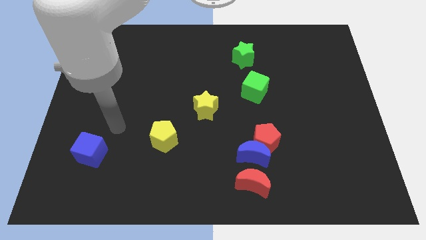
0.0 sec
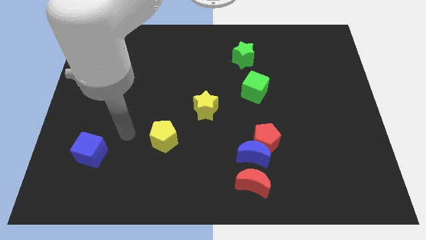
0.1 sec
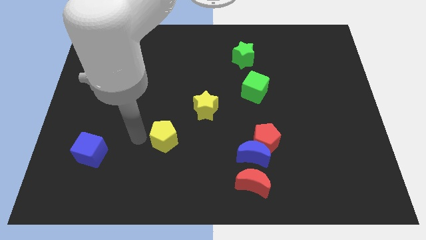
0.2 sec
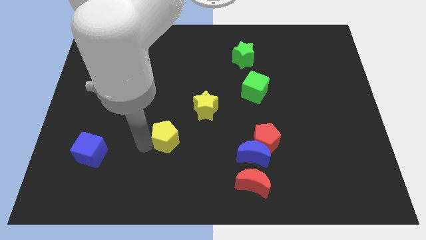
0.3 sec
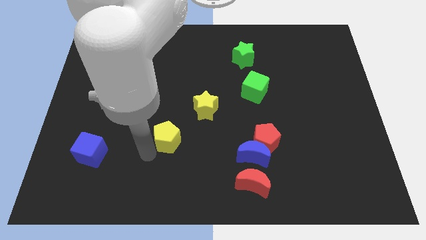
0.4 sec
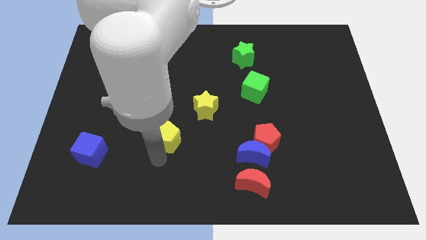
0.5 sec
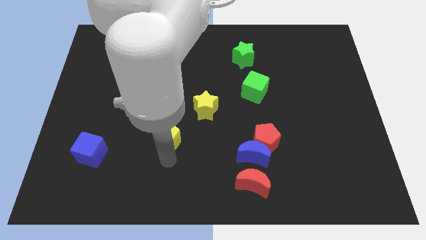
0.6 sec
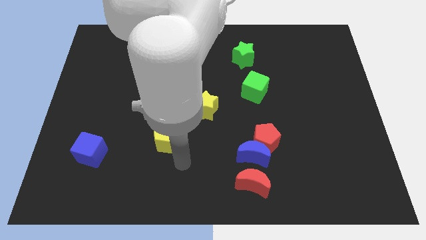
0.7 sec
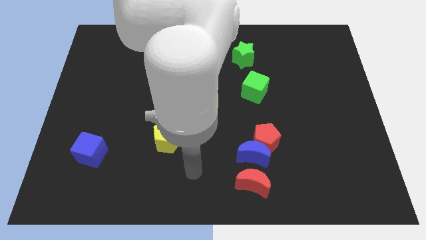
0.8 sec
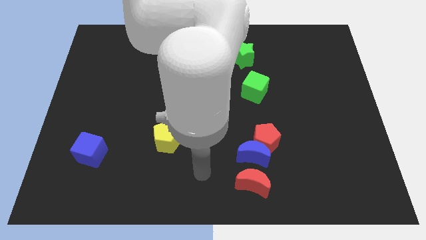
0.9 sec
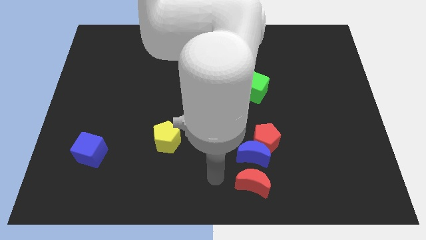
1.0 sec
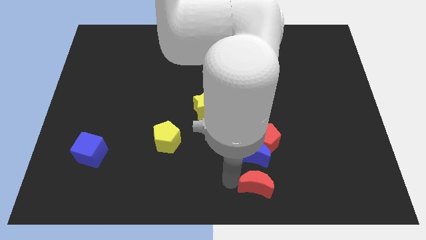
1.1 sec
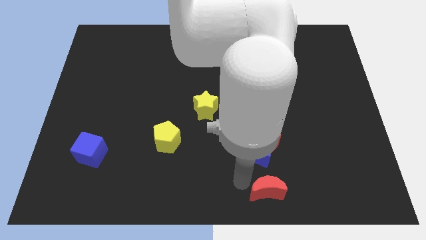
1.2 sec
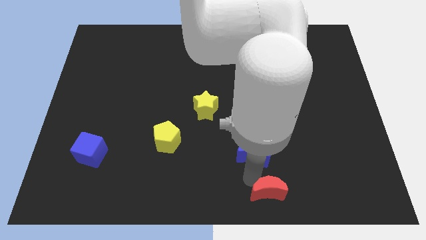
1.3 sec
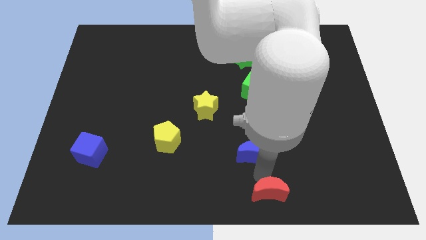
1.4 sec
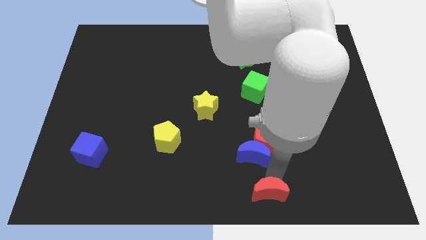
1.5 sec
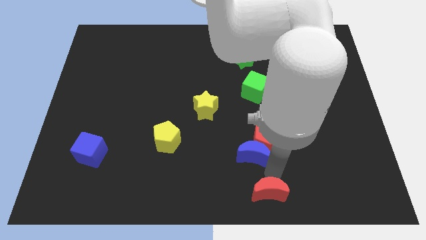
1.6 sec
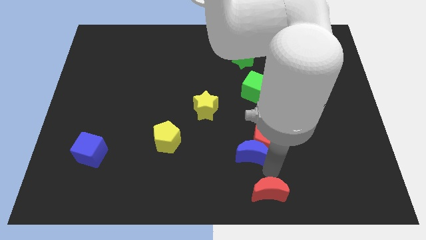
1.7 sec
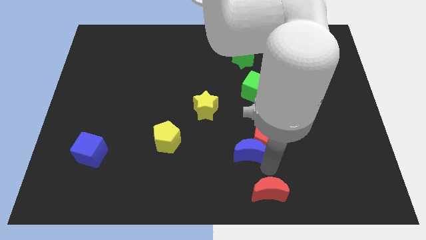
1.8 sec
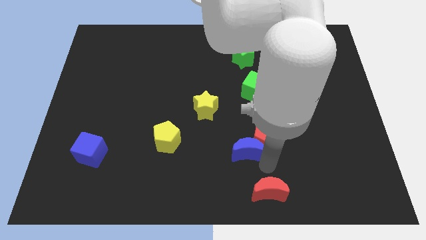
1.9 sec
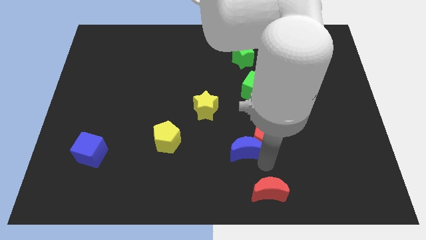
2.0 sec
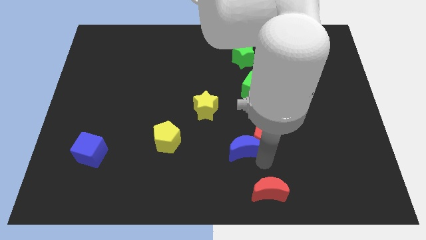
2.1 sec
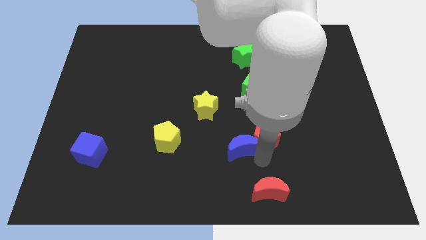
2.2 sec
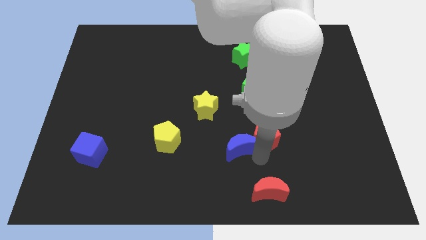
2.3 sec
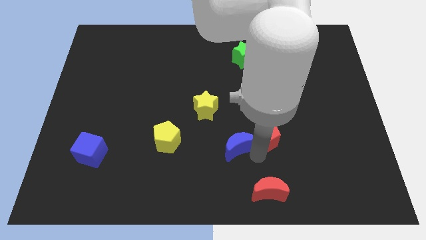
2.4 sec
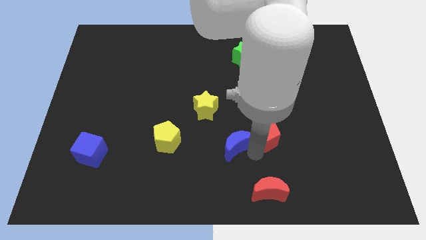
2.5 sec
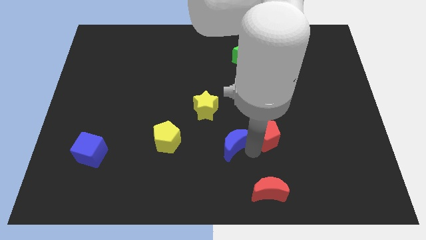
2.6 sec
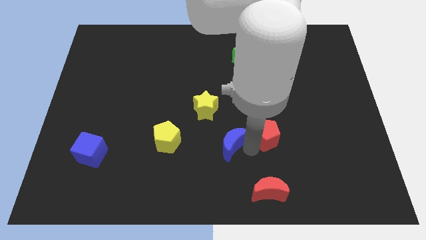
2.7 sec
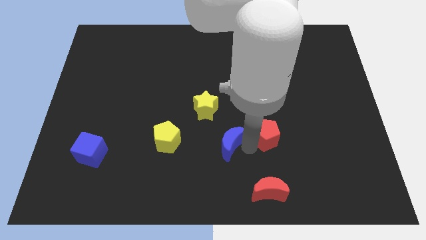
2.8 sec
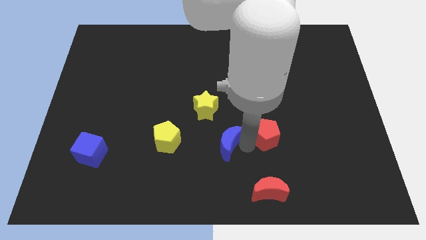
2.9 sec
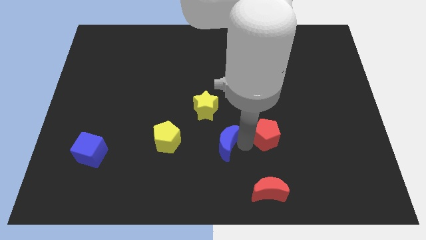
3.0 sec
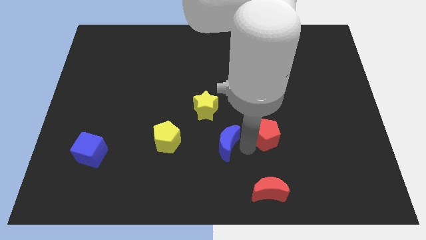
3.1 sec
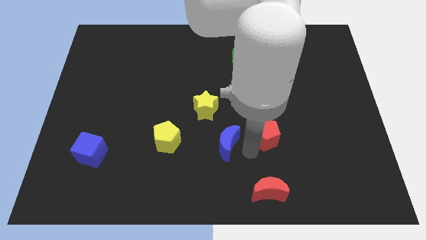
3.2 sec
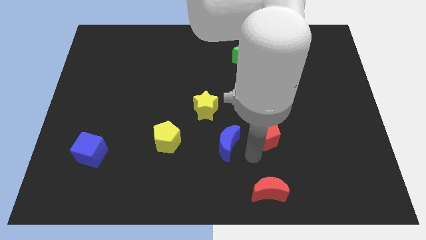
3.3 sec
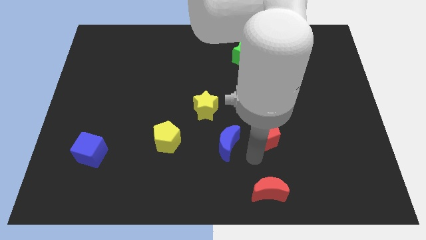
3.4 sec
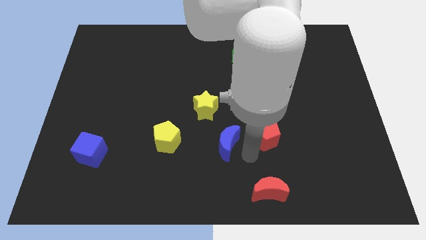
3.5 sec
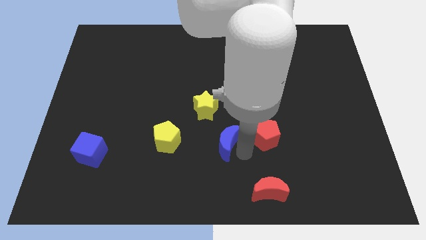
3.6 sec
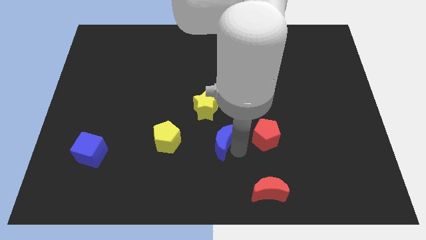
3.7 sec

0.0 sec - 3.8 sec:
pull the blue moon apart from the red pentagon and red moon

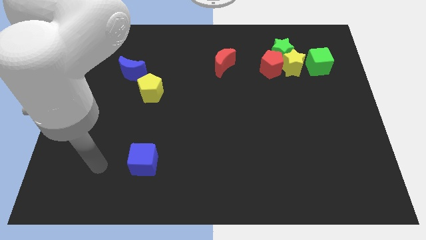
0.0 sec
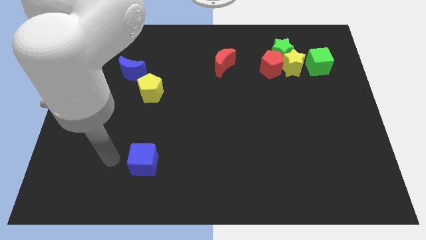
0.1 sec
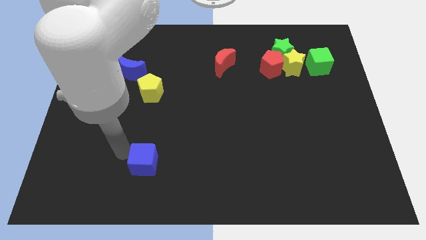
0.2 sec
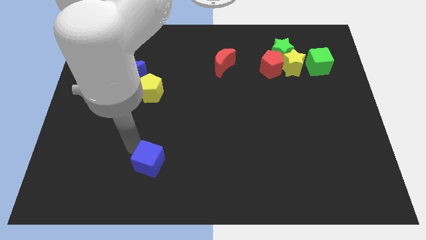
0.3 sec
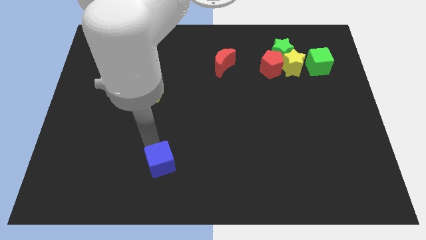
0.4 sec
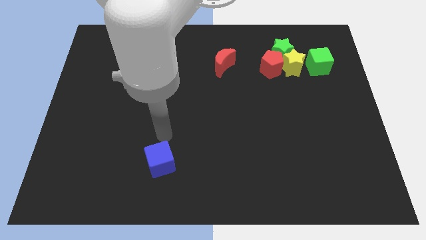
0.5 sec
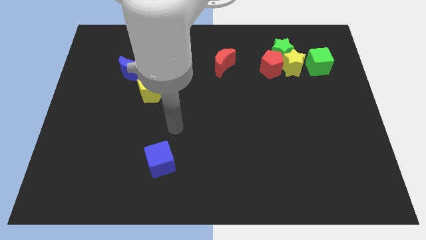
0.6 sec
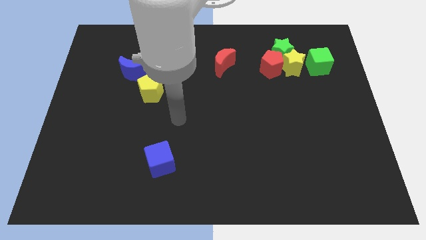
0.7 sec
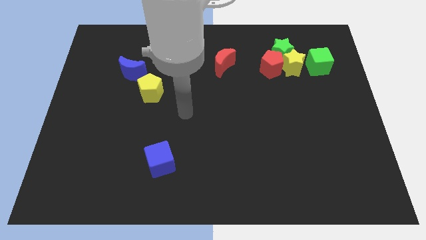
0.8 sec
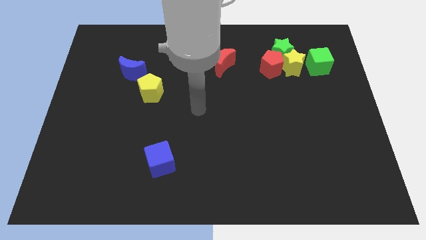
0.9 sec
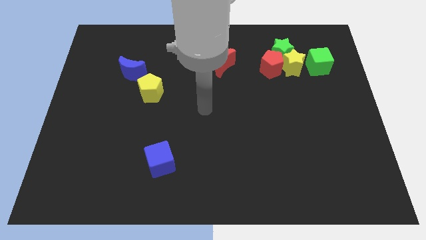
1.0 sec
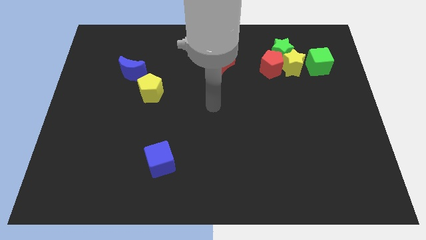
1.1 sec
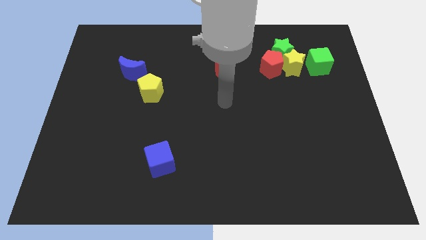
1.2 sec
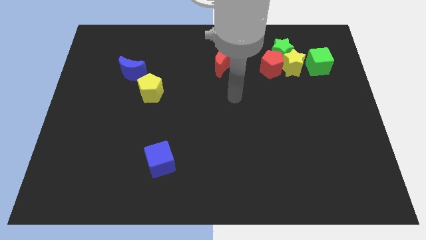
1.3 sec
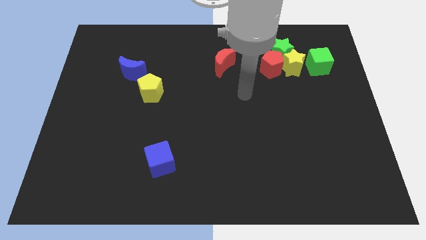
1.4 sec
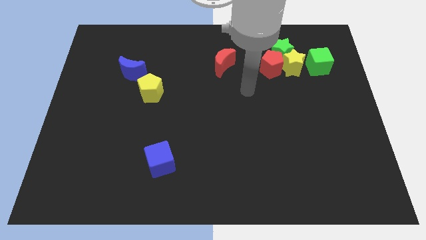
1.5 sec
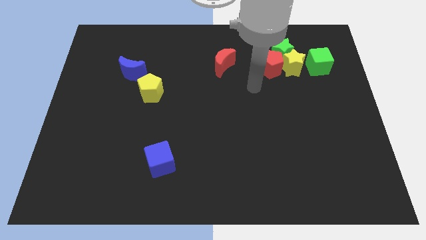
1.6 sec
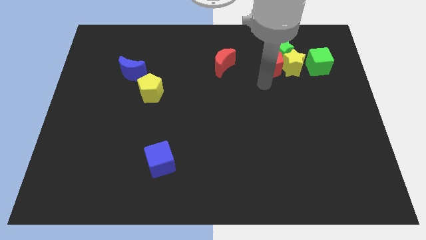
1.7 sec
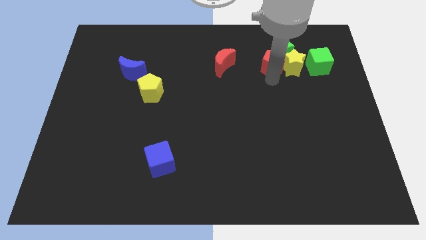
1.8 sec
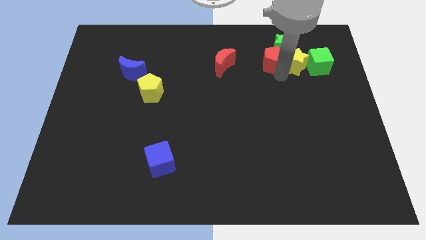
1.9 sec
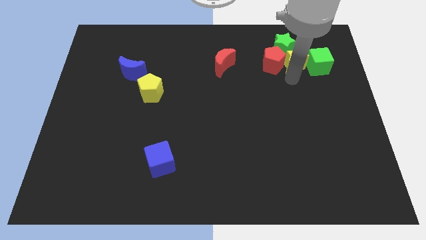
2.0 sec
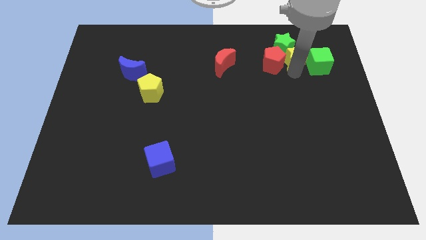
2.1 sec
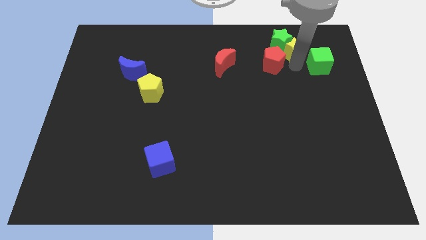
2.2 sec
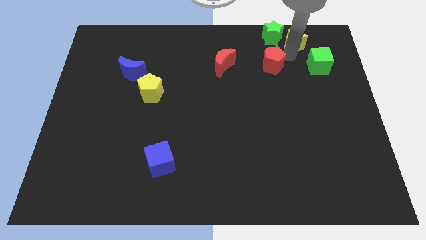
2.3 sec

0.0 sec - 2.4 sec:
separate the red pentagon from the green star and yellow star

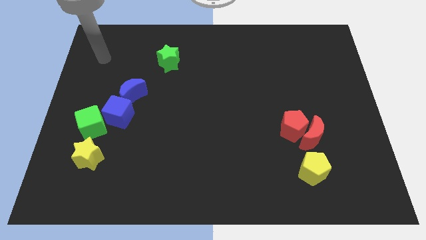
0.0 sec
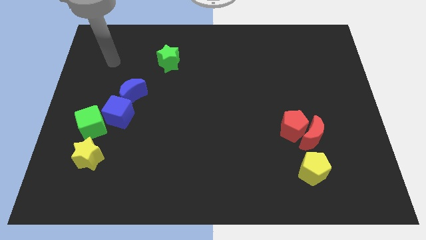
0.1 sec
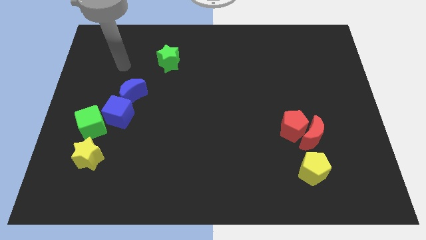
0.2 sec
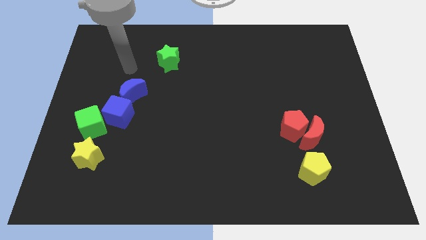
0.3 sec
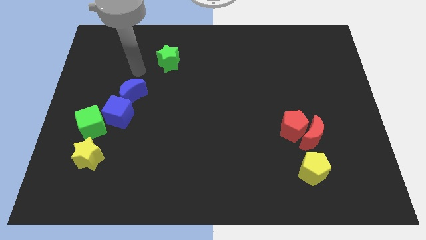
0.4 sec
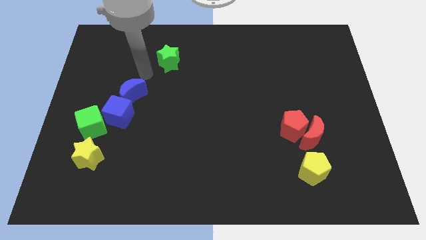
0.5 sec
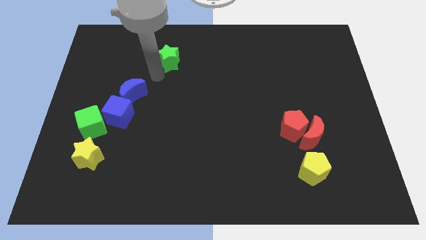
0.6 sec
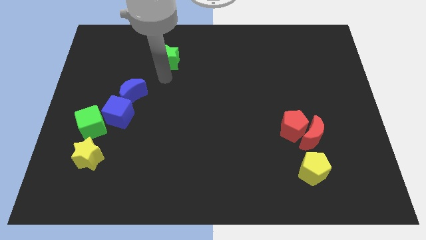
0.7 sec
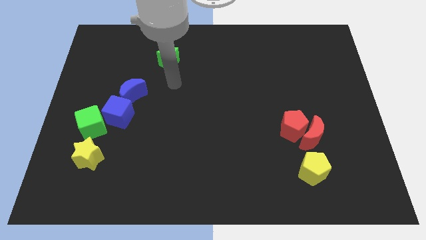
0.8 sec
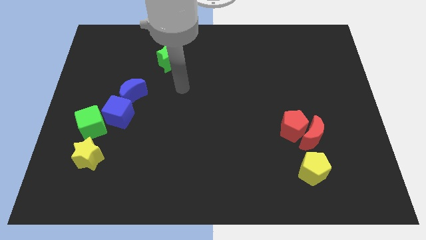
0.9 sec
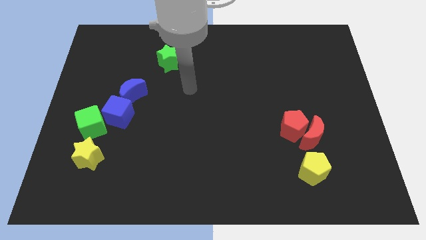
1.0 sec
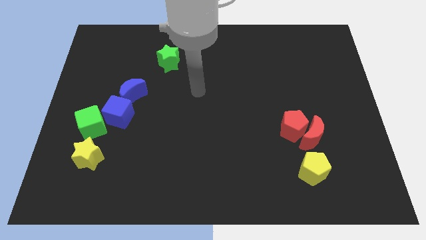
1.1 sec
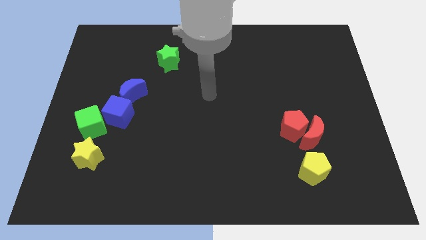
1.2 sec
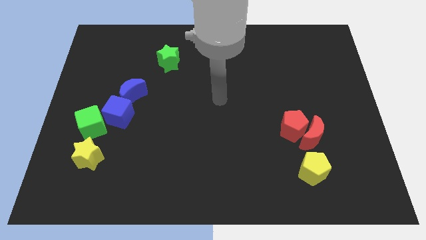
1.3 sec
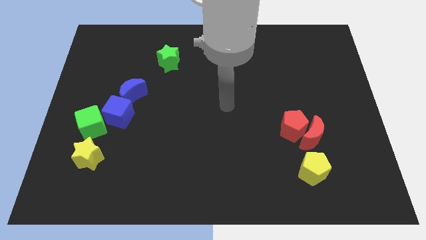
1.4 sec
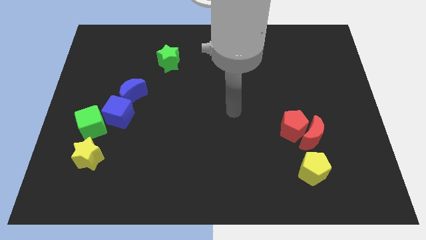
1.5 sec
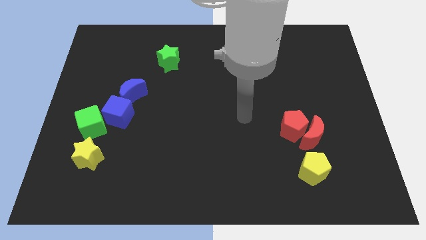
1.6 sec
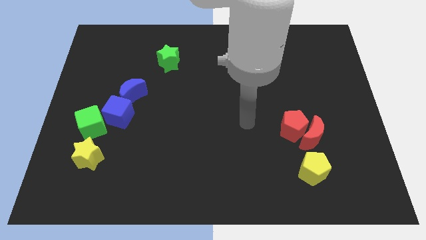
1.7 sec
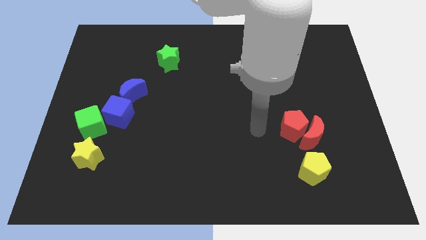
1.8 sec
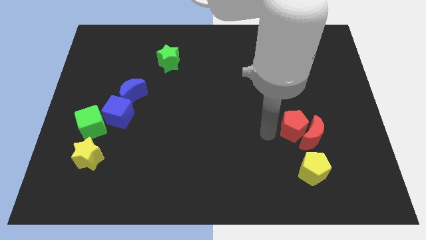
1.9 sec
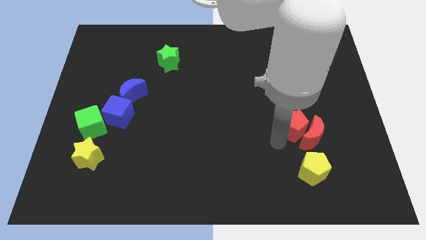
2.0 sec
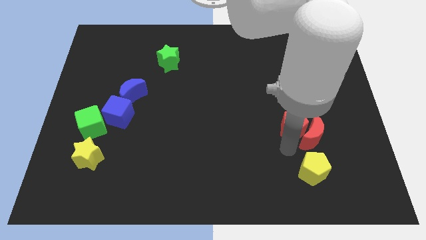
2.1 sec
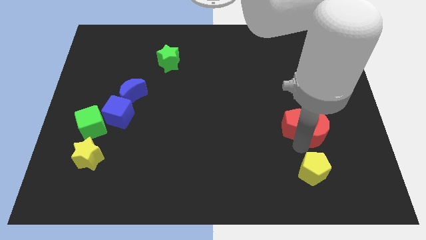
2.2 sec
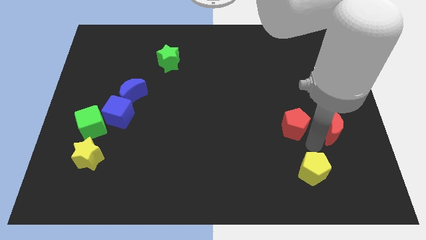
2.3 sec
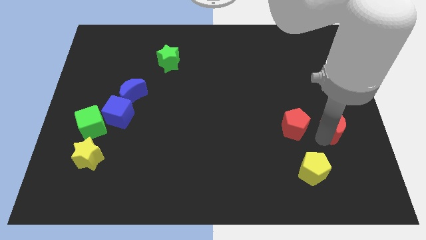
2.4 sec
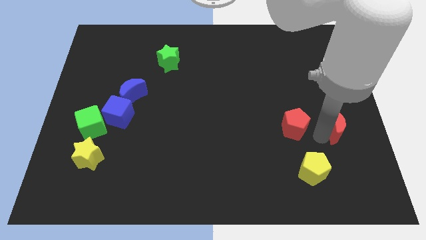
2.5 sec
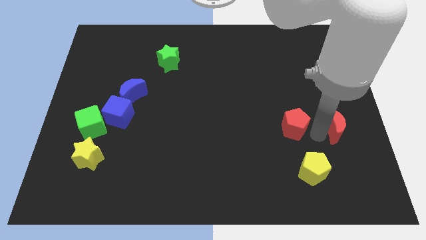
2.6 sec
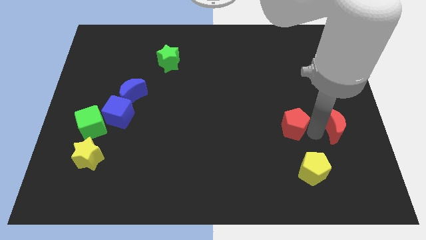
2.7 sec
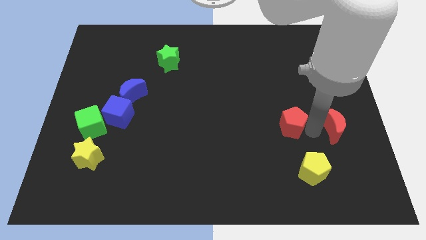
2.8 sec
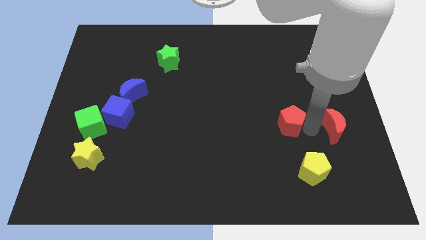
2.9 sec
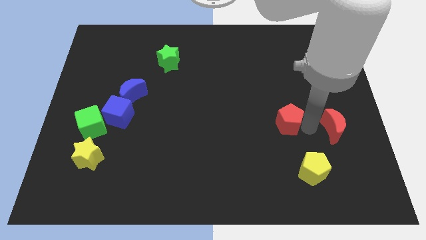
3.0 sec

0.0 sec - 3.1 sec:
separate the red pentagon from the red moon

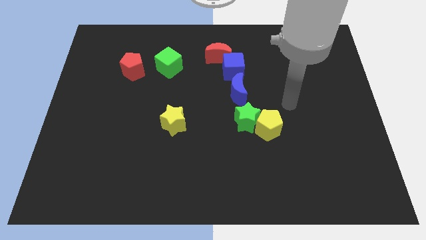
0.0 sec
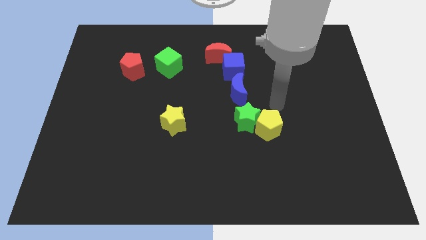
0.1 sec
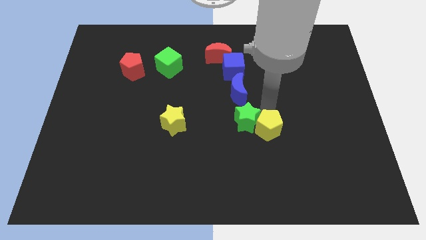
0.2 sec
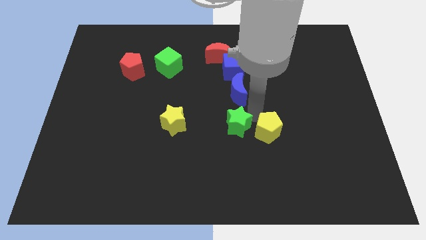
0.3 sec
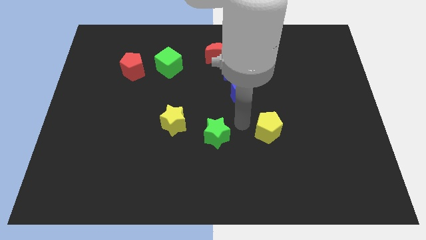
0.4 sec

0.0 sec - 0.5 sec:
move the yellow pentagon away from the green star
